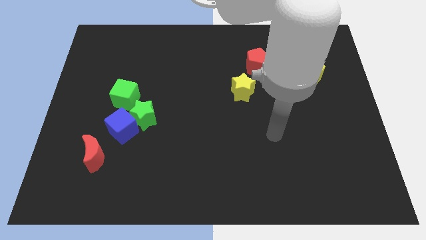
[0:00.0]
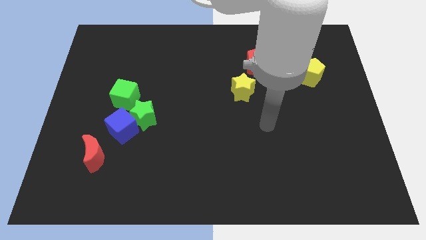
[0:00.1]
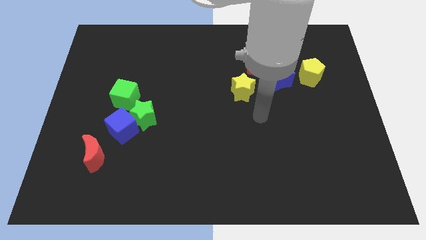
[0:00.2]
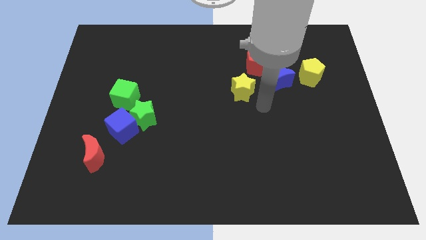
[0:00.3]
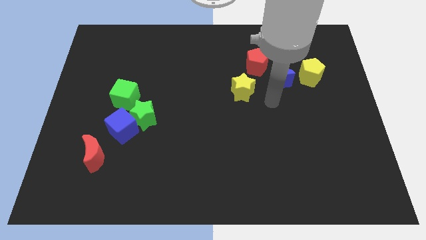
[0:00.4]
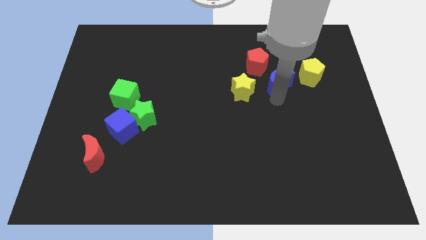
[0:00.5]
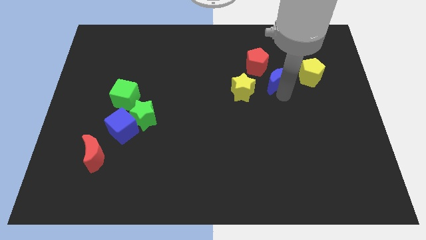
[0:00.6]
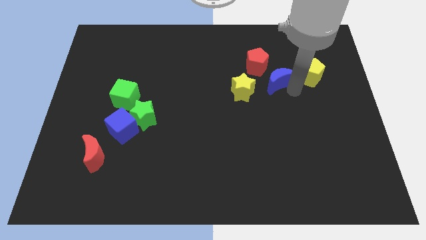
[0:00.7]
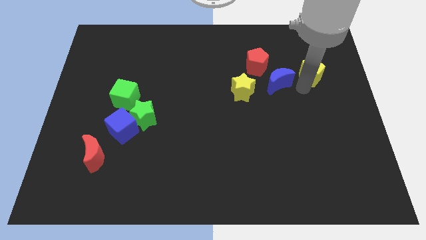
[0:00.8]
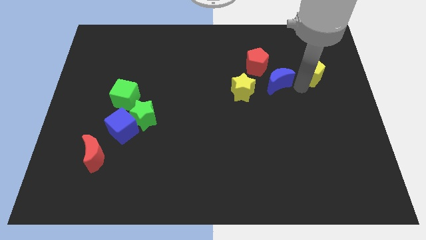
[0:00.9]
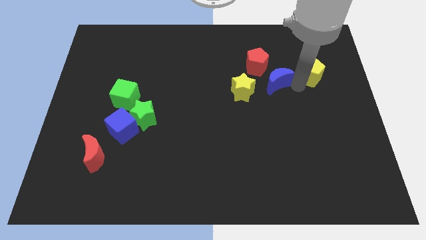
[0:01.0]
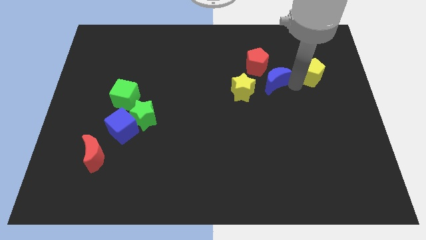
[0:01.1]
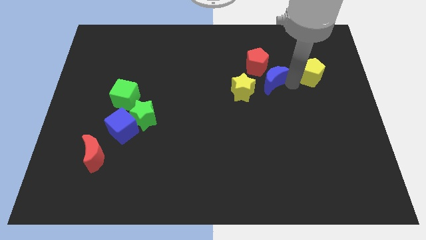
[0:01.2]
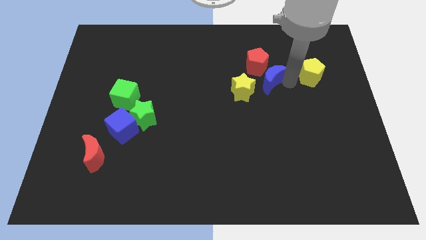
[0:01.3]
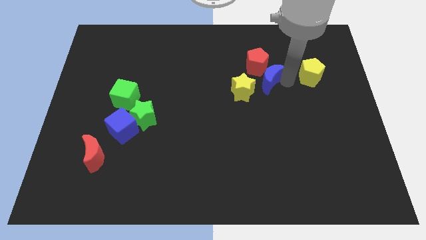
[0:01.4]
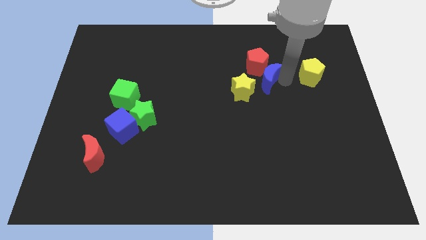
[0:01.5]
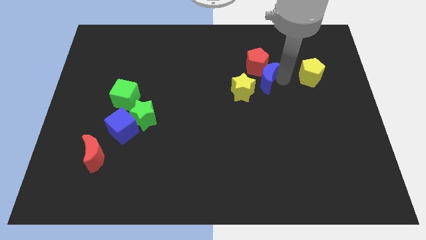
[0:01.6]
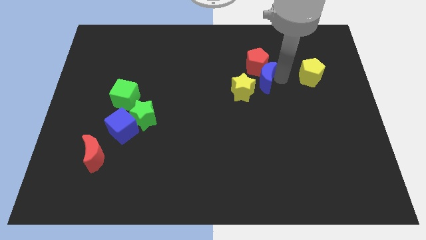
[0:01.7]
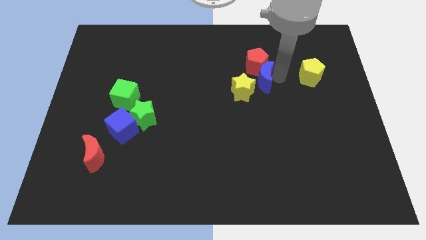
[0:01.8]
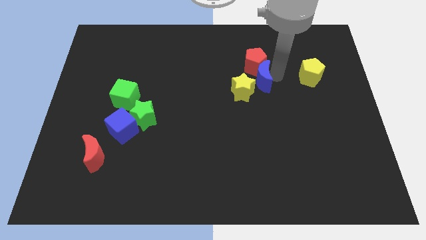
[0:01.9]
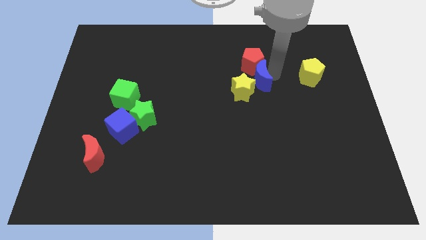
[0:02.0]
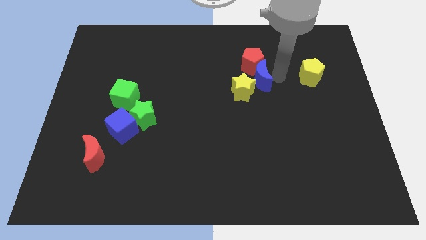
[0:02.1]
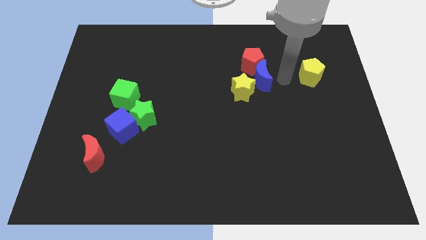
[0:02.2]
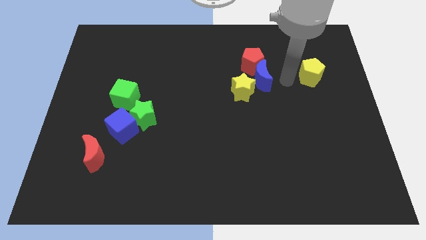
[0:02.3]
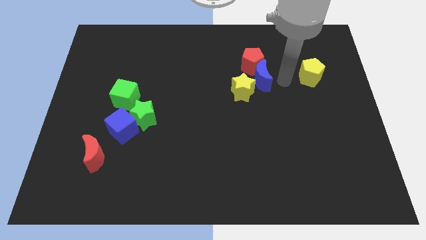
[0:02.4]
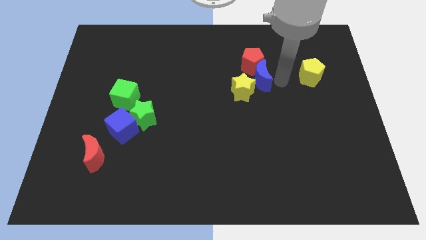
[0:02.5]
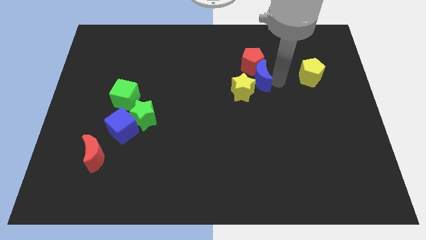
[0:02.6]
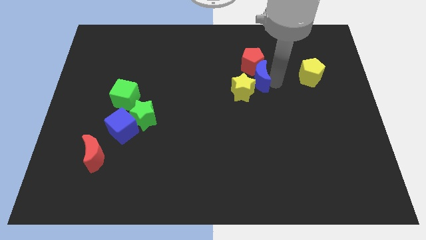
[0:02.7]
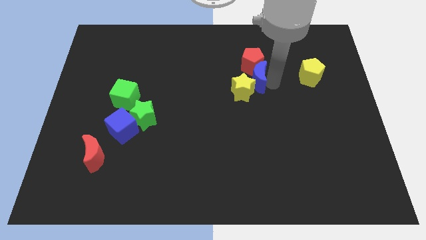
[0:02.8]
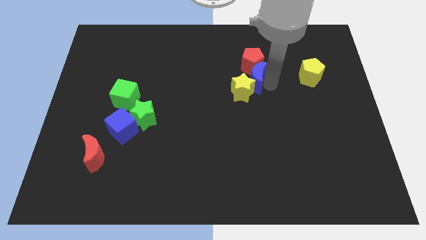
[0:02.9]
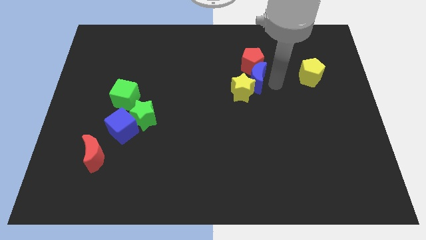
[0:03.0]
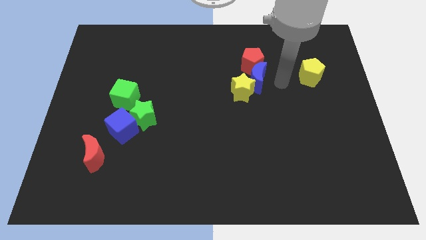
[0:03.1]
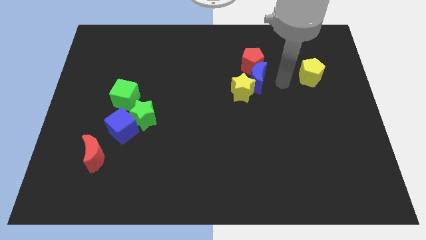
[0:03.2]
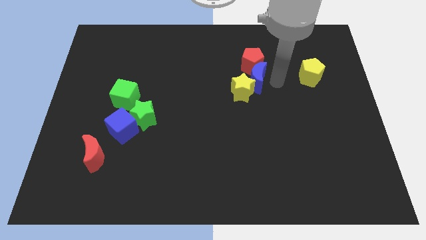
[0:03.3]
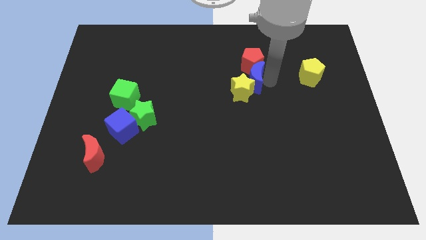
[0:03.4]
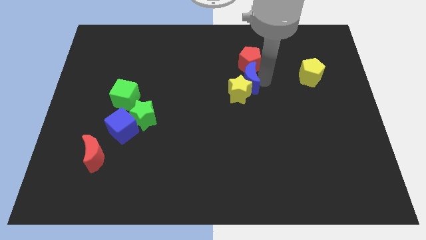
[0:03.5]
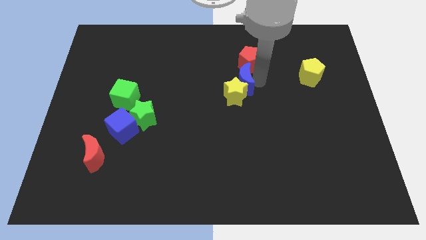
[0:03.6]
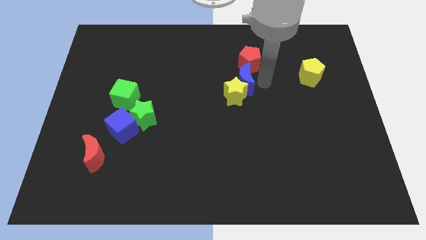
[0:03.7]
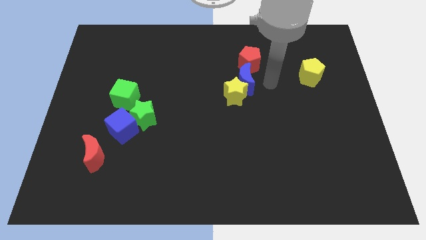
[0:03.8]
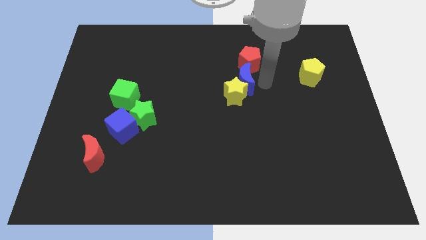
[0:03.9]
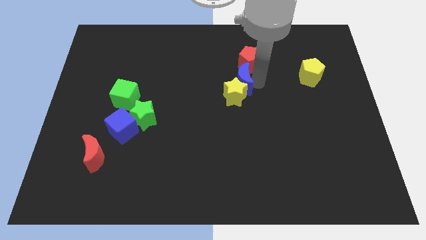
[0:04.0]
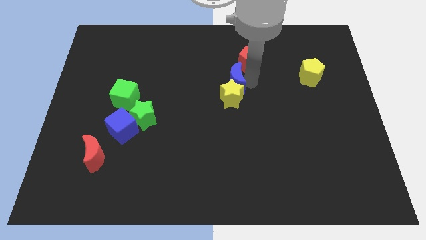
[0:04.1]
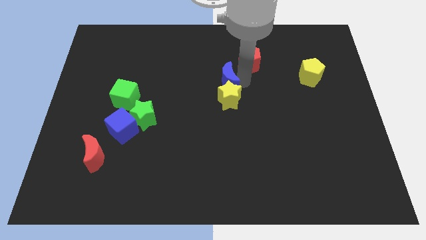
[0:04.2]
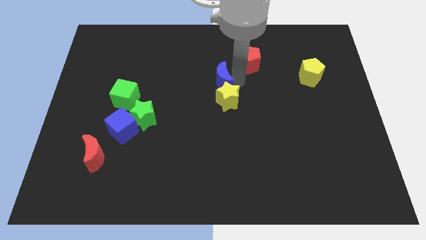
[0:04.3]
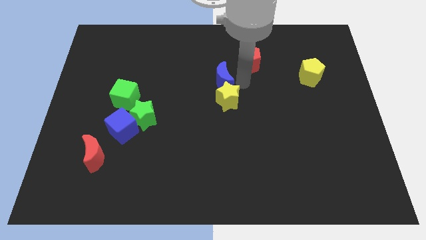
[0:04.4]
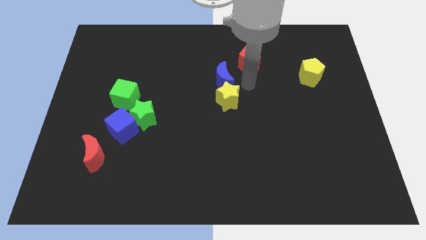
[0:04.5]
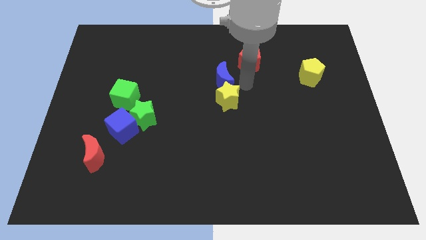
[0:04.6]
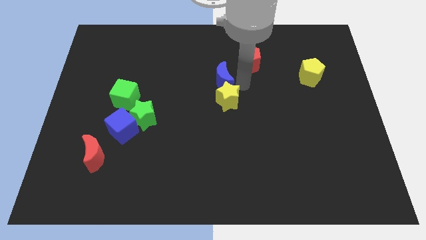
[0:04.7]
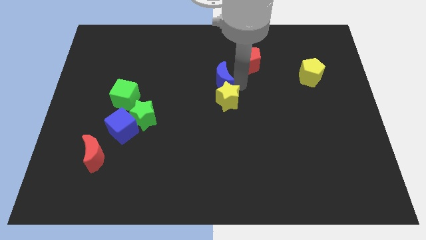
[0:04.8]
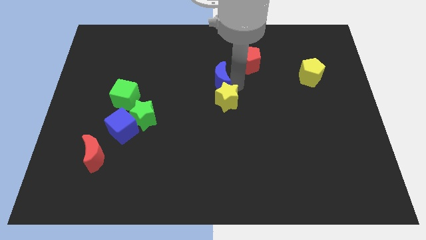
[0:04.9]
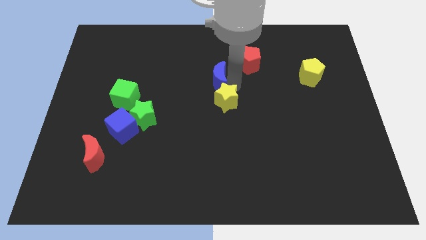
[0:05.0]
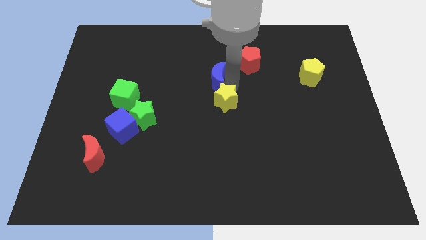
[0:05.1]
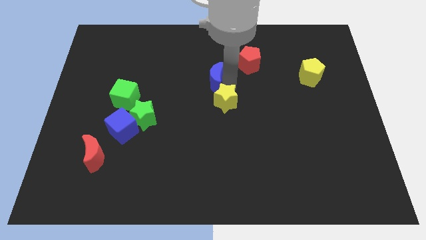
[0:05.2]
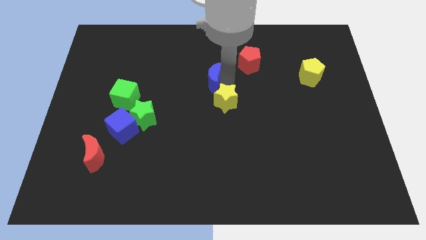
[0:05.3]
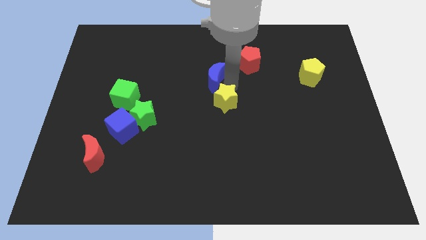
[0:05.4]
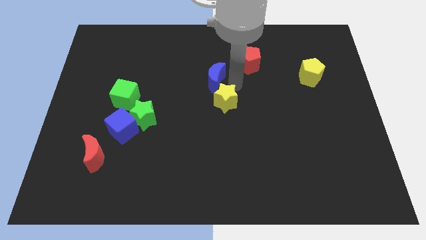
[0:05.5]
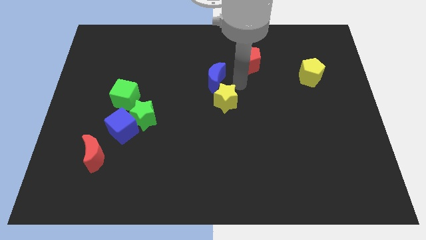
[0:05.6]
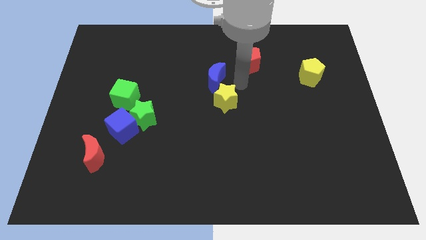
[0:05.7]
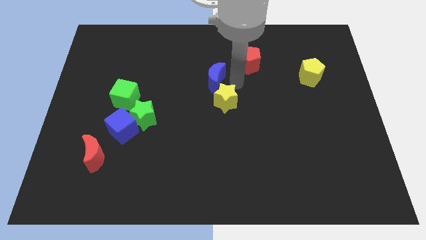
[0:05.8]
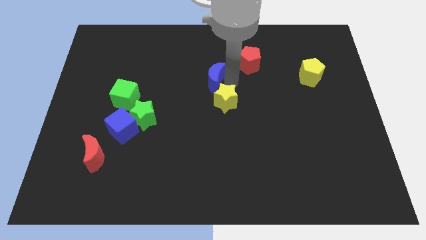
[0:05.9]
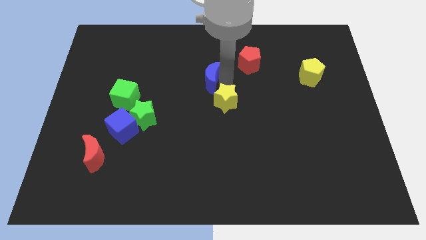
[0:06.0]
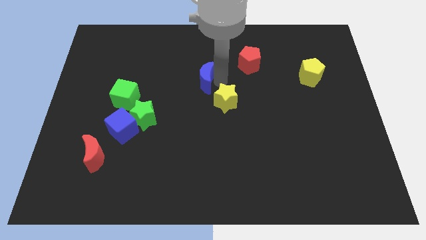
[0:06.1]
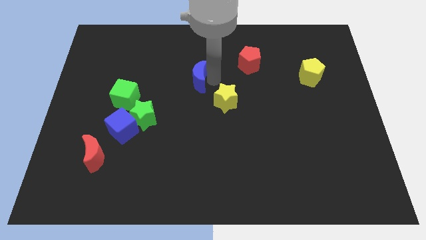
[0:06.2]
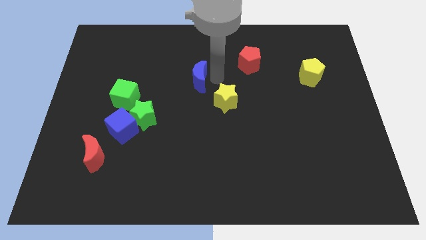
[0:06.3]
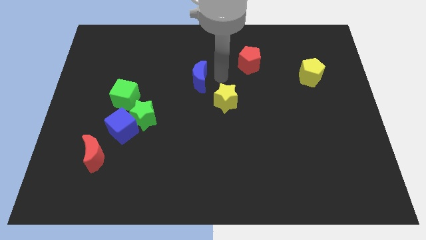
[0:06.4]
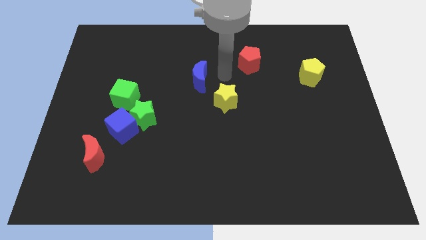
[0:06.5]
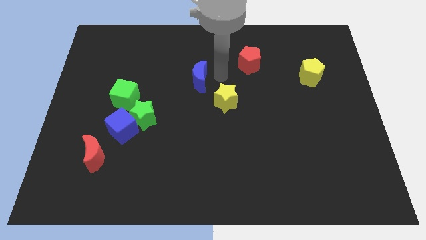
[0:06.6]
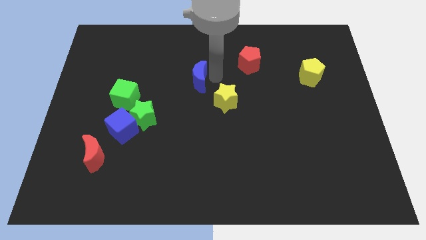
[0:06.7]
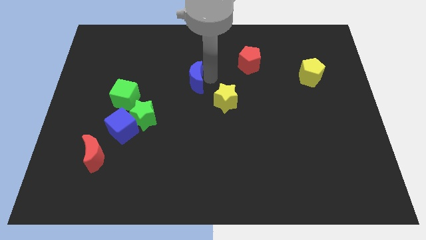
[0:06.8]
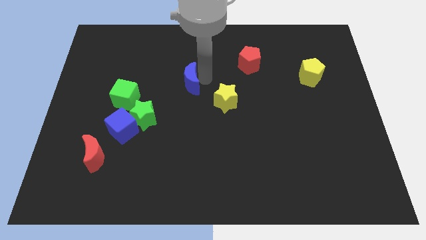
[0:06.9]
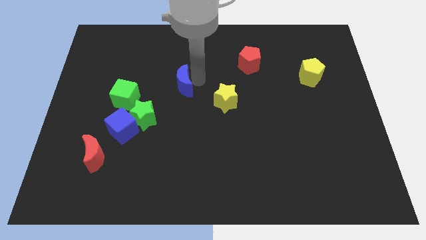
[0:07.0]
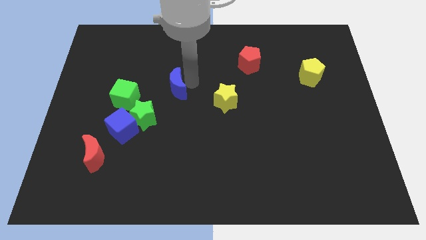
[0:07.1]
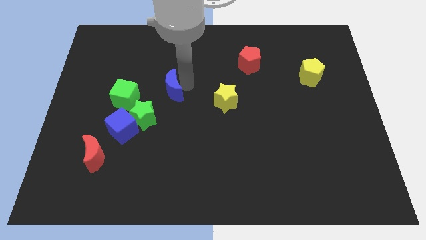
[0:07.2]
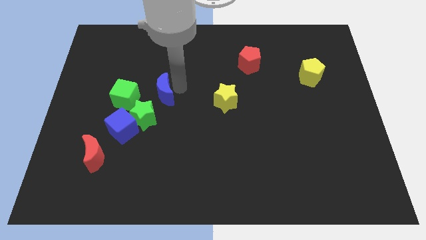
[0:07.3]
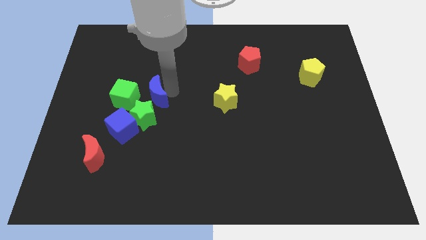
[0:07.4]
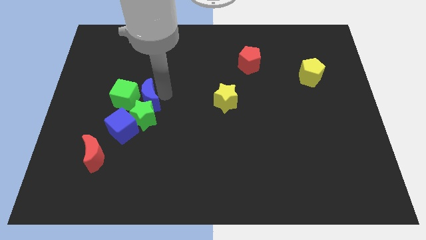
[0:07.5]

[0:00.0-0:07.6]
slide the blue moon close to the green cube
